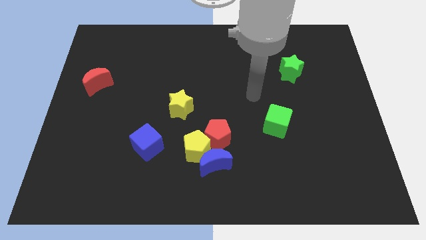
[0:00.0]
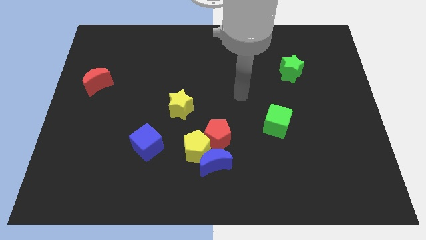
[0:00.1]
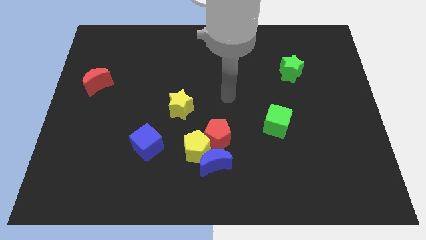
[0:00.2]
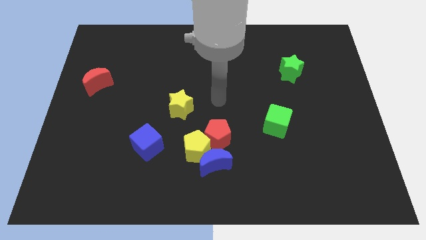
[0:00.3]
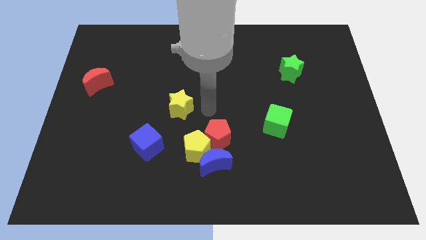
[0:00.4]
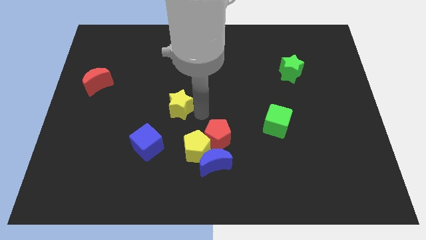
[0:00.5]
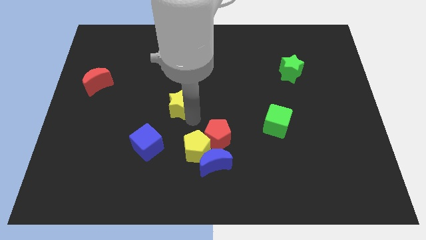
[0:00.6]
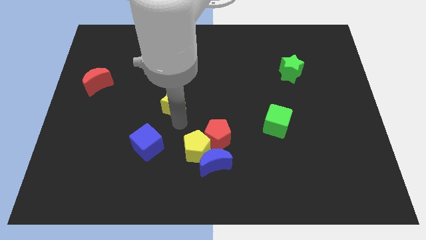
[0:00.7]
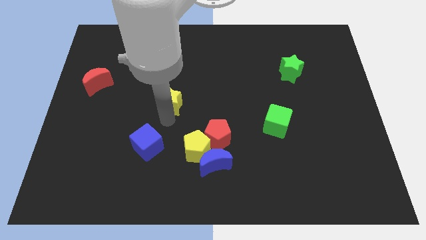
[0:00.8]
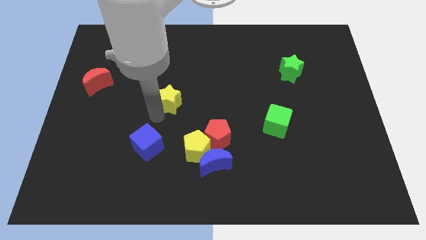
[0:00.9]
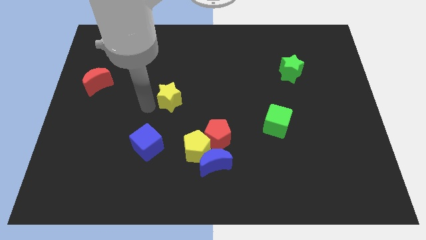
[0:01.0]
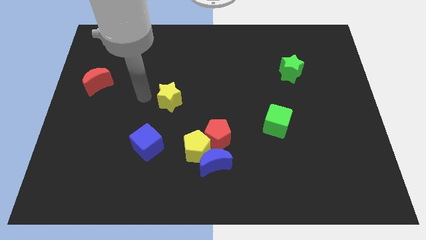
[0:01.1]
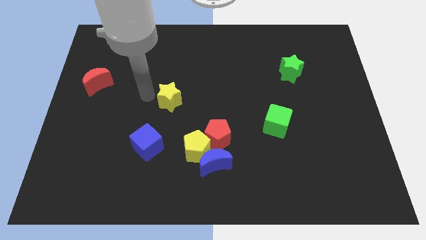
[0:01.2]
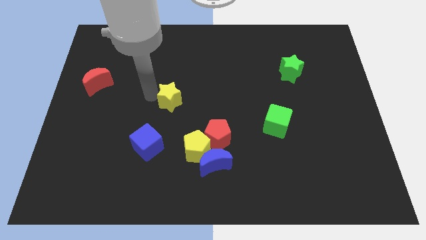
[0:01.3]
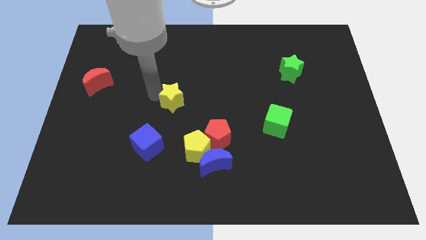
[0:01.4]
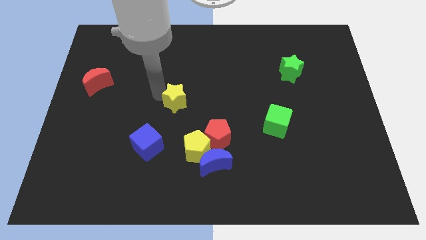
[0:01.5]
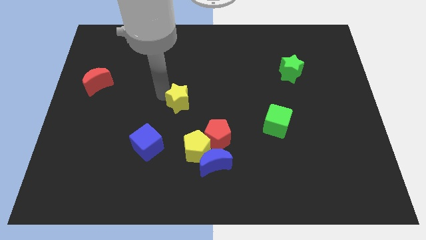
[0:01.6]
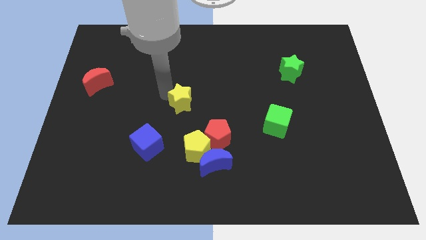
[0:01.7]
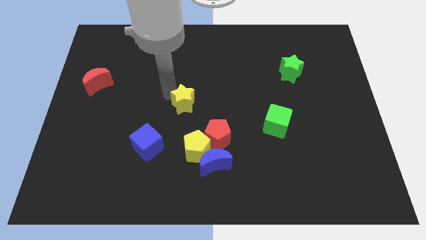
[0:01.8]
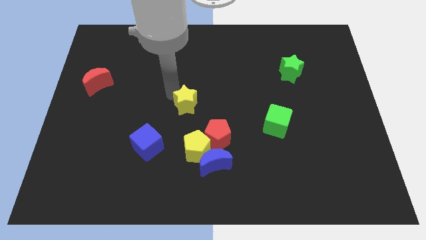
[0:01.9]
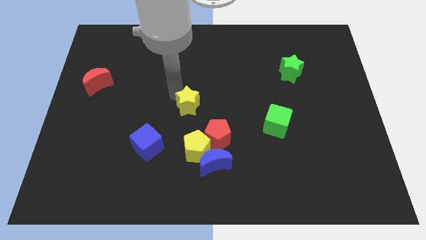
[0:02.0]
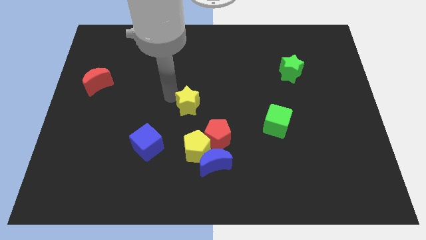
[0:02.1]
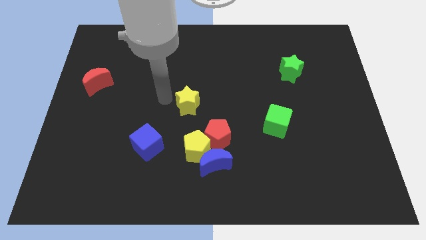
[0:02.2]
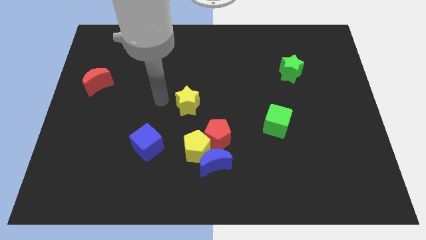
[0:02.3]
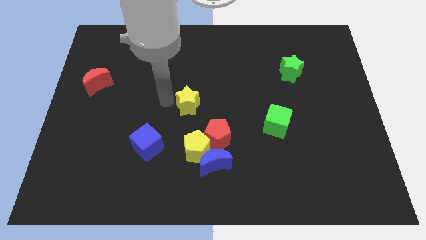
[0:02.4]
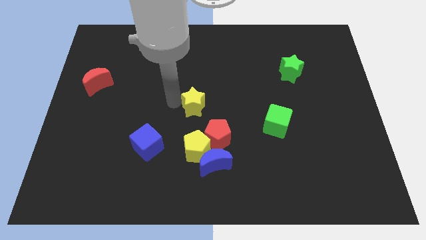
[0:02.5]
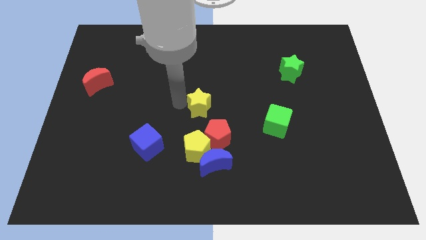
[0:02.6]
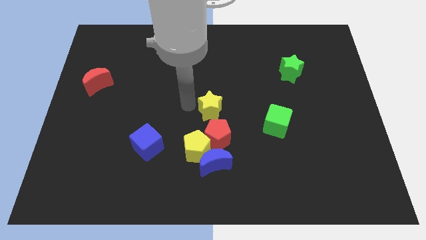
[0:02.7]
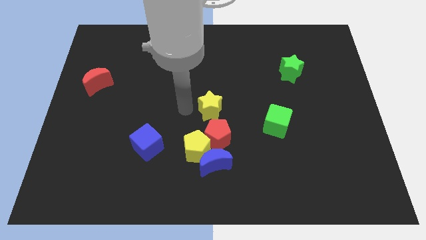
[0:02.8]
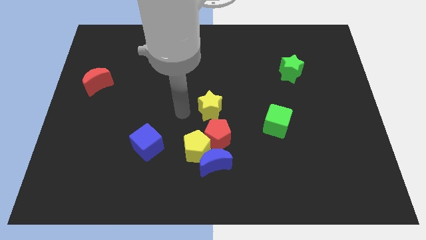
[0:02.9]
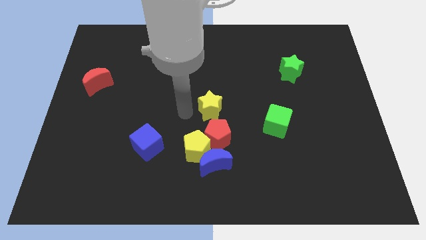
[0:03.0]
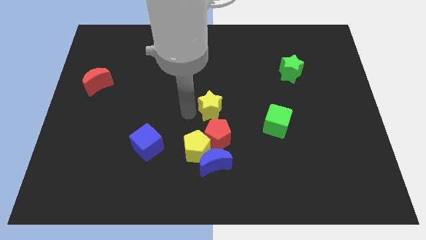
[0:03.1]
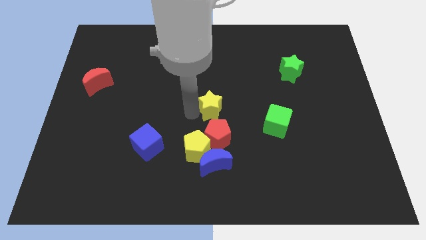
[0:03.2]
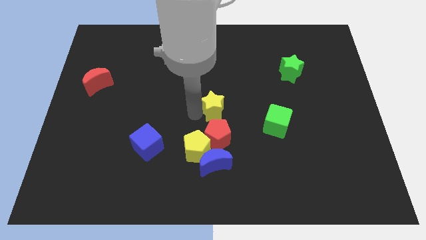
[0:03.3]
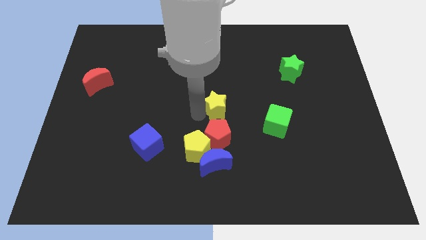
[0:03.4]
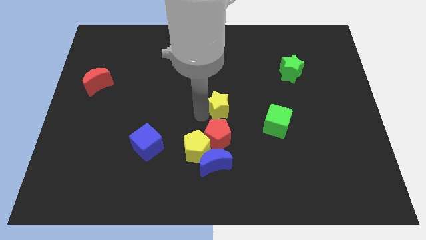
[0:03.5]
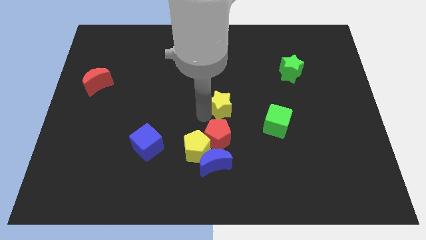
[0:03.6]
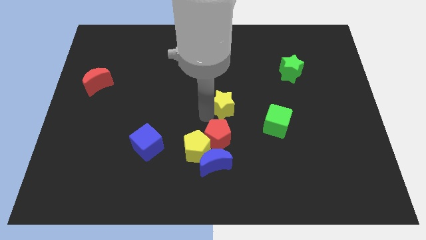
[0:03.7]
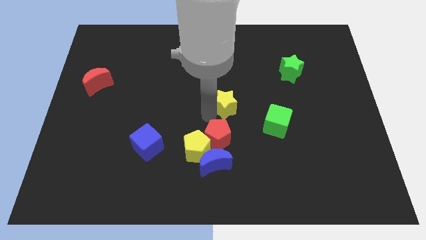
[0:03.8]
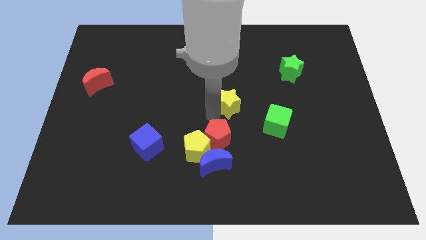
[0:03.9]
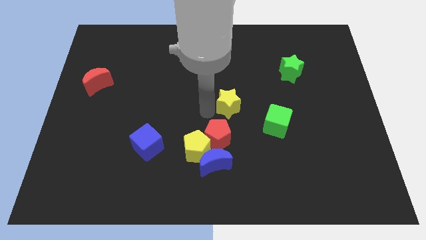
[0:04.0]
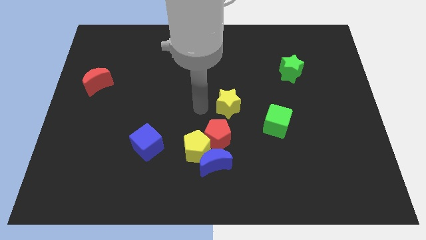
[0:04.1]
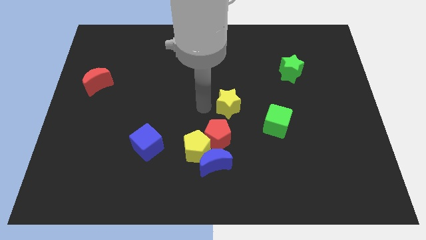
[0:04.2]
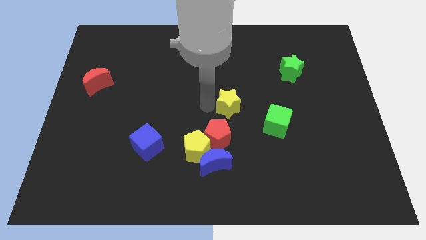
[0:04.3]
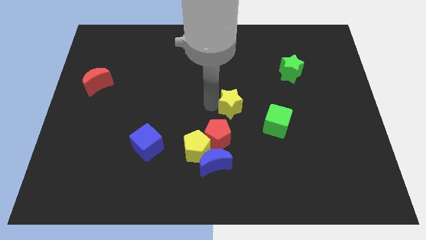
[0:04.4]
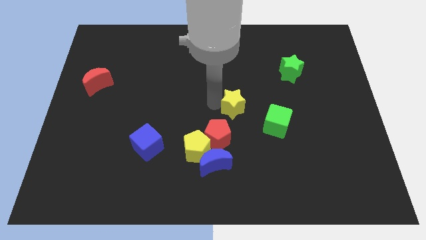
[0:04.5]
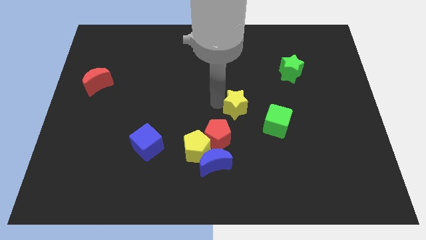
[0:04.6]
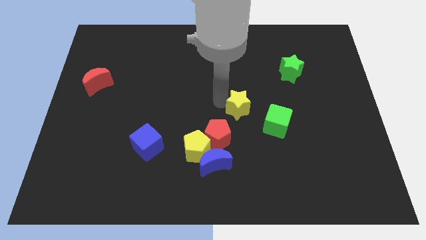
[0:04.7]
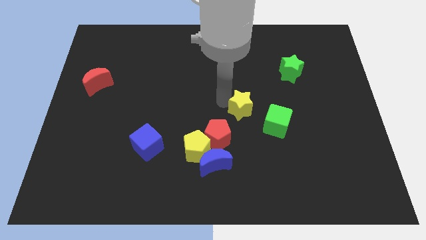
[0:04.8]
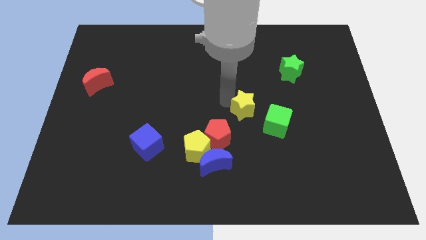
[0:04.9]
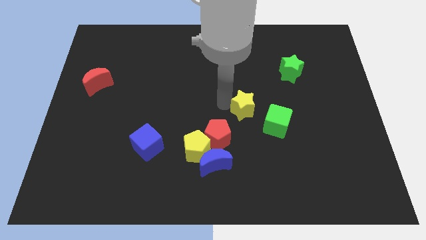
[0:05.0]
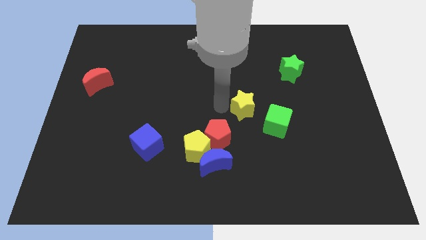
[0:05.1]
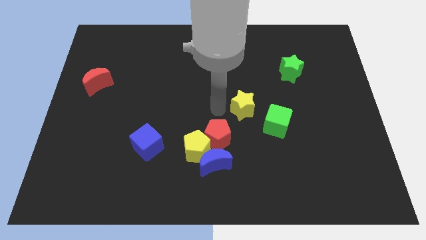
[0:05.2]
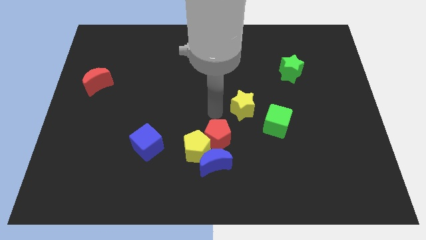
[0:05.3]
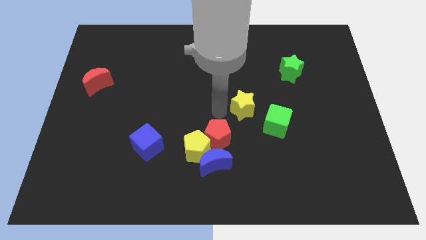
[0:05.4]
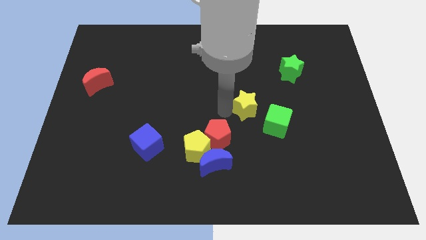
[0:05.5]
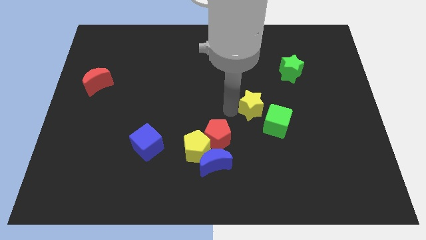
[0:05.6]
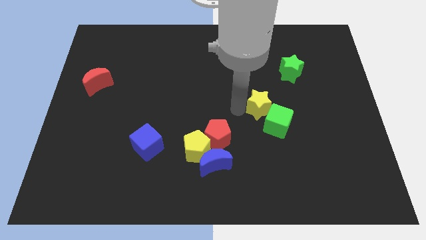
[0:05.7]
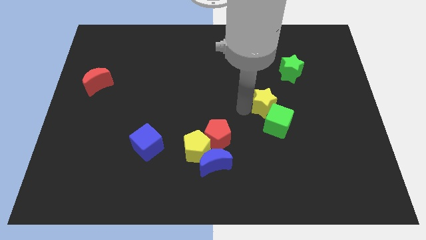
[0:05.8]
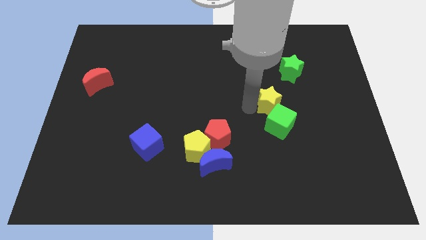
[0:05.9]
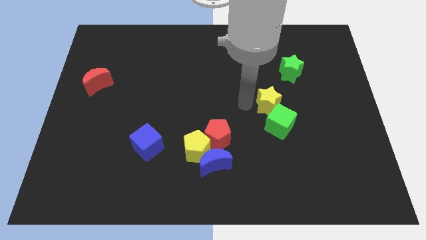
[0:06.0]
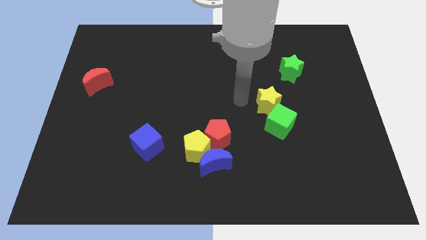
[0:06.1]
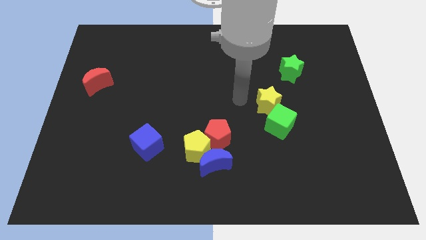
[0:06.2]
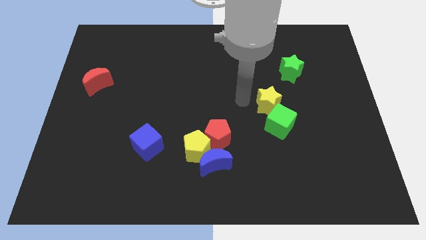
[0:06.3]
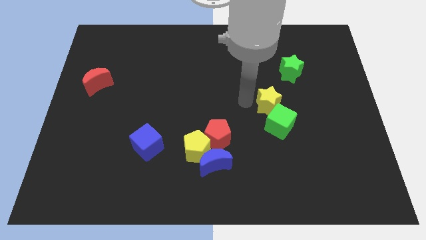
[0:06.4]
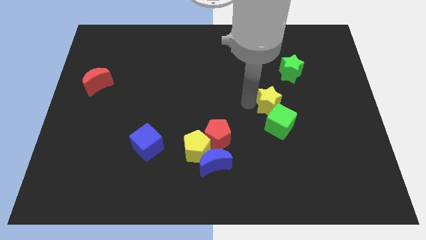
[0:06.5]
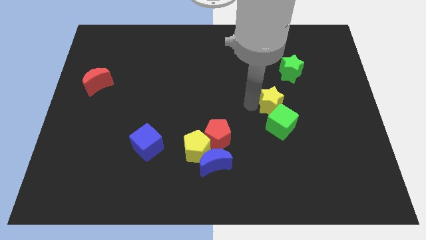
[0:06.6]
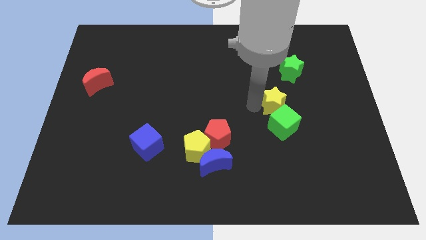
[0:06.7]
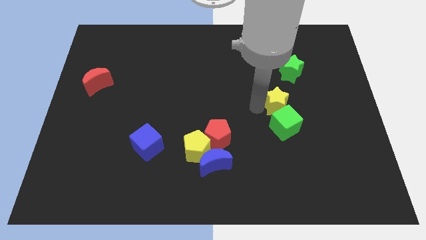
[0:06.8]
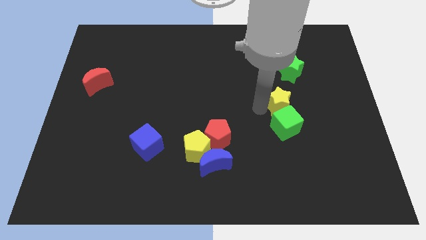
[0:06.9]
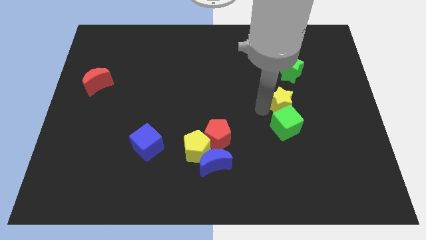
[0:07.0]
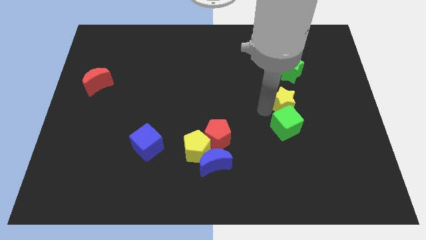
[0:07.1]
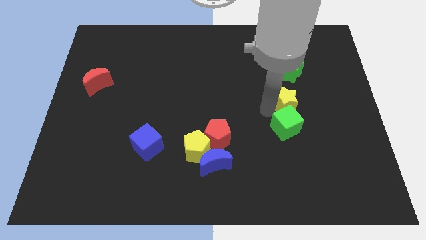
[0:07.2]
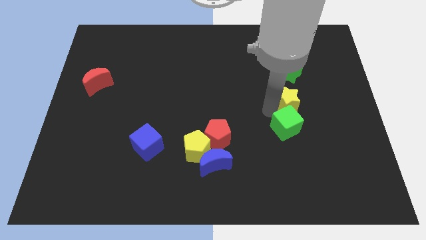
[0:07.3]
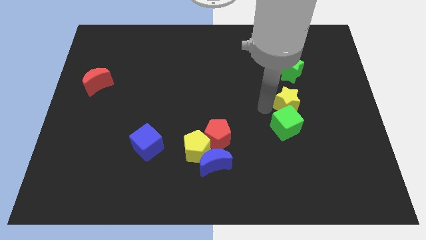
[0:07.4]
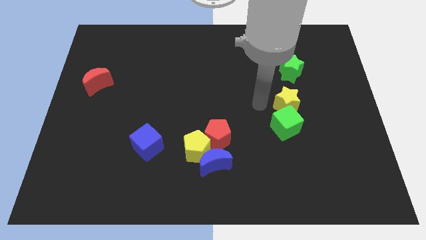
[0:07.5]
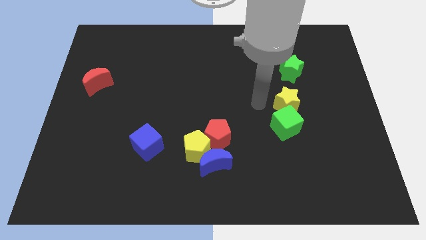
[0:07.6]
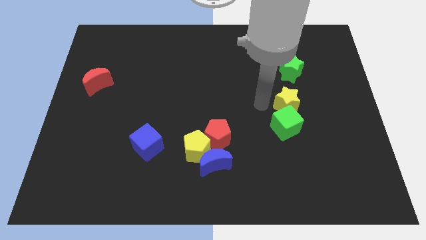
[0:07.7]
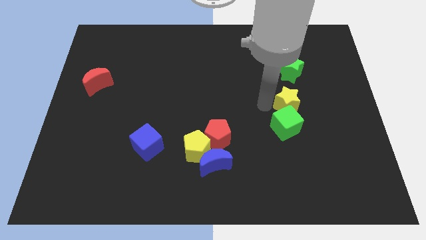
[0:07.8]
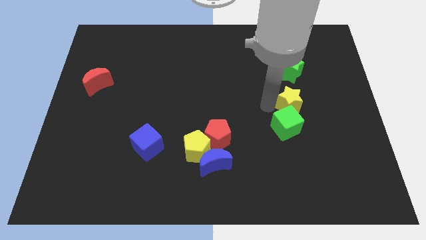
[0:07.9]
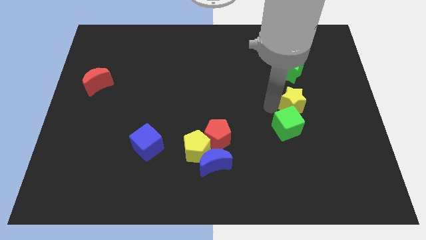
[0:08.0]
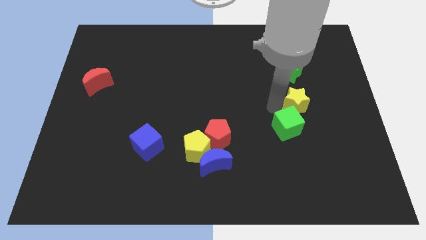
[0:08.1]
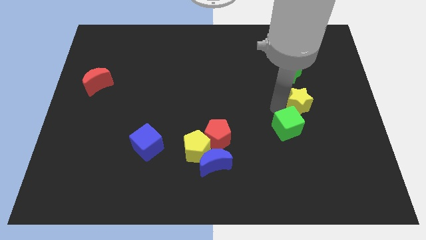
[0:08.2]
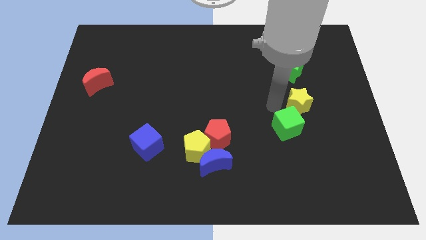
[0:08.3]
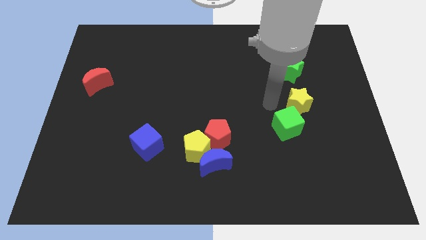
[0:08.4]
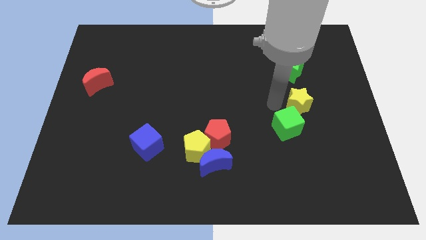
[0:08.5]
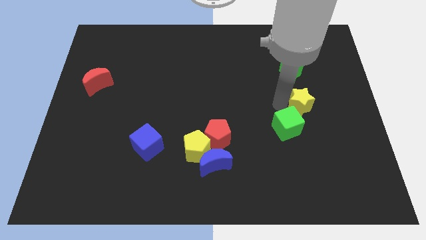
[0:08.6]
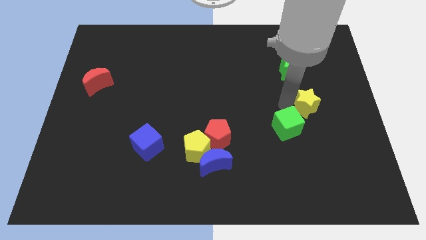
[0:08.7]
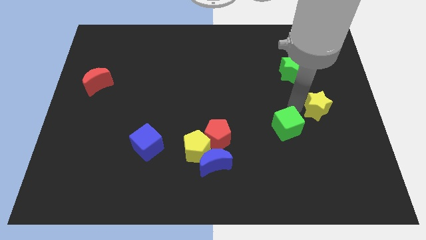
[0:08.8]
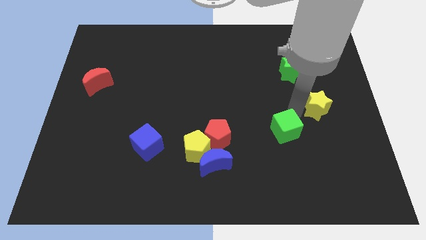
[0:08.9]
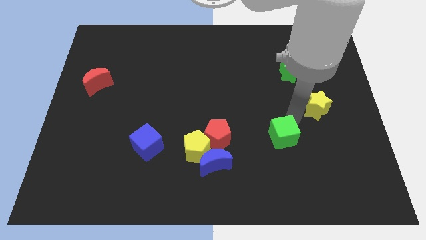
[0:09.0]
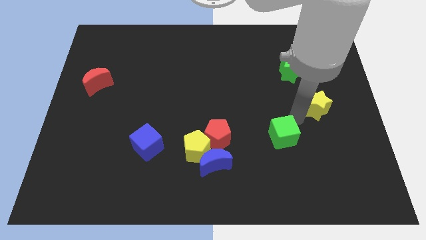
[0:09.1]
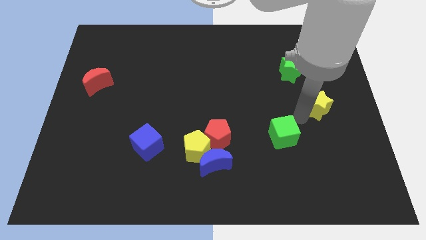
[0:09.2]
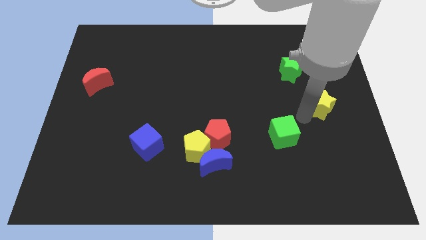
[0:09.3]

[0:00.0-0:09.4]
move the yellow star to the right side
